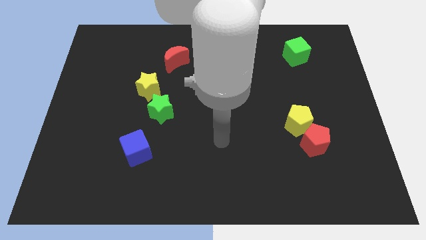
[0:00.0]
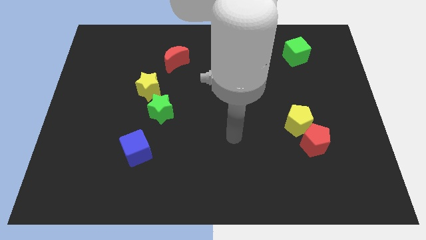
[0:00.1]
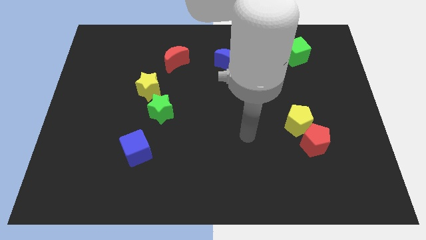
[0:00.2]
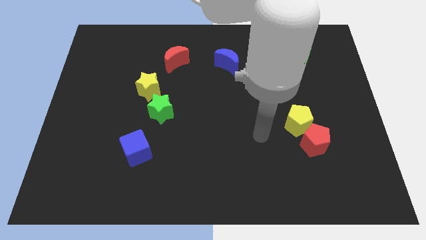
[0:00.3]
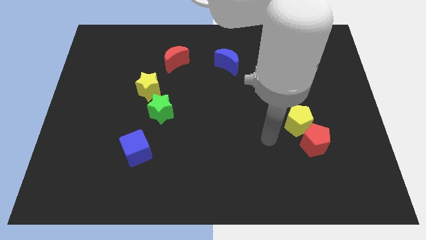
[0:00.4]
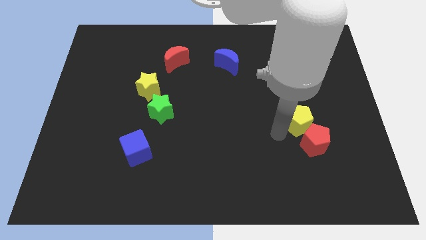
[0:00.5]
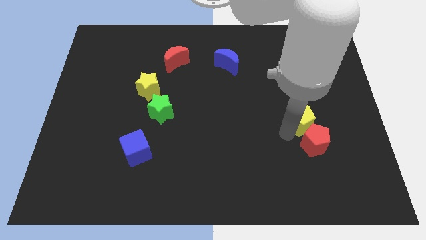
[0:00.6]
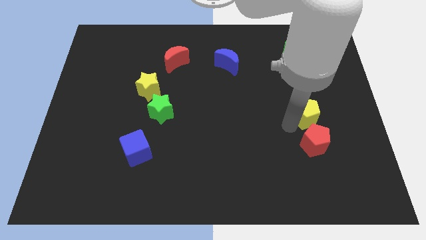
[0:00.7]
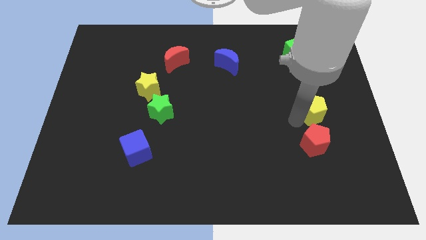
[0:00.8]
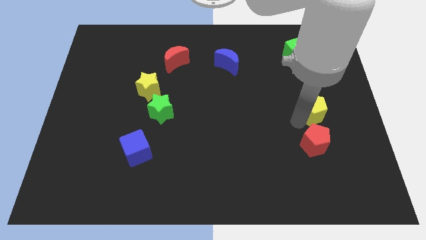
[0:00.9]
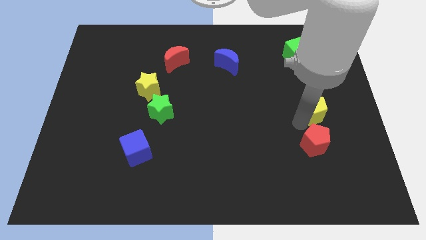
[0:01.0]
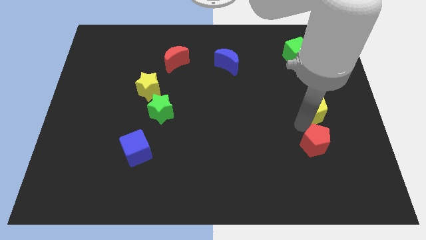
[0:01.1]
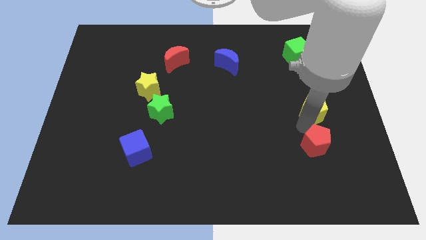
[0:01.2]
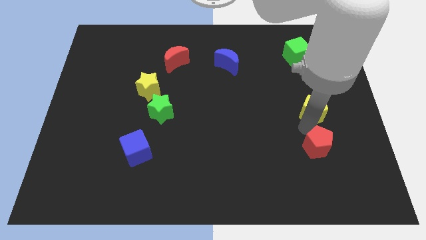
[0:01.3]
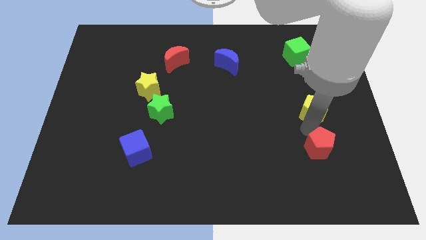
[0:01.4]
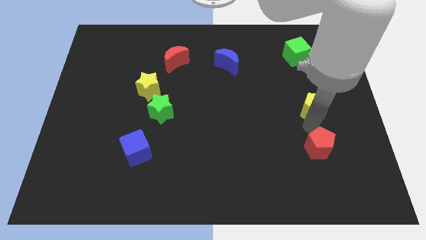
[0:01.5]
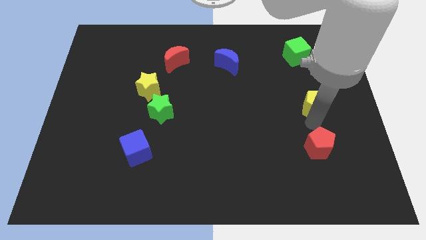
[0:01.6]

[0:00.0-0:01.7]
separate the red pentagon from the yellow pentagon

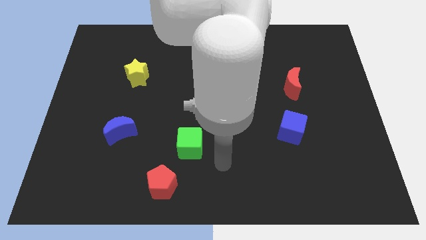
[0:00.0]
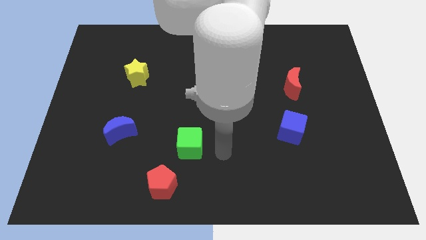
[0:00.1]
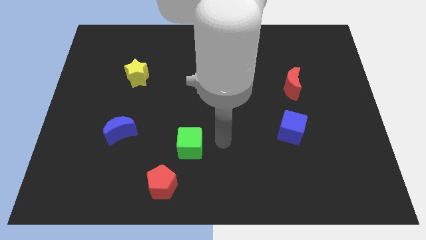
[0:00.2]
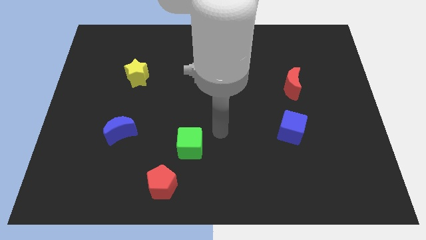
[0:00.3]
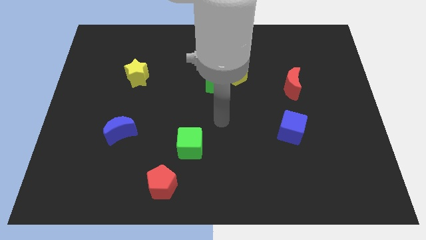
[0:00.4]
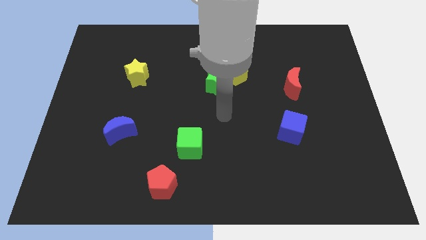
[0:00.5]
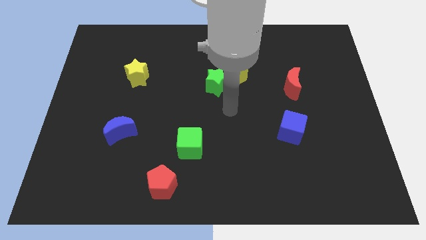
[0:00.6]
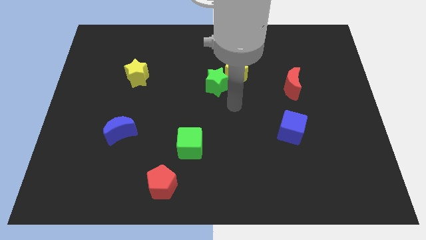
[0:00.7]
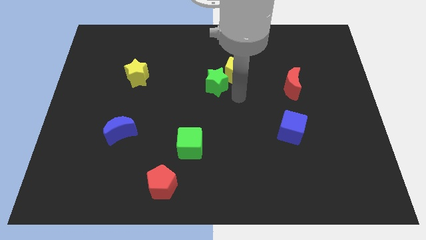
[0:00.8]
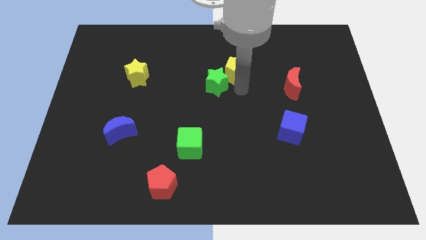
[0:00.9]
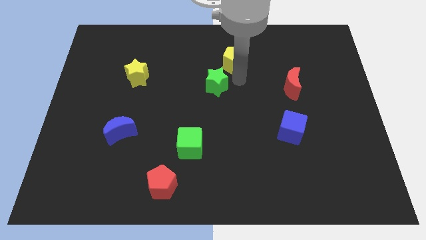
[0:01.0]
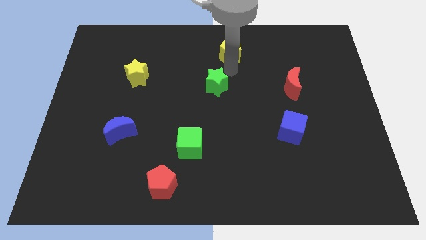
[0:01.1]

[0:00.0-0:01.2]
separate the green star from the yellow pentagon

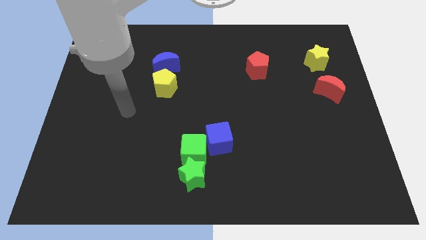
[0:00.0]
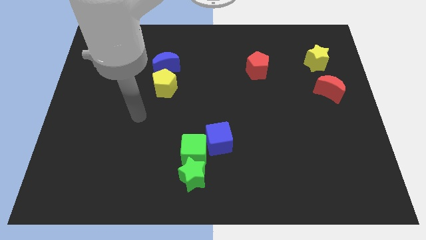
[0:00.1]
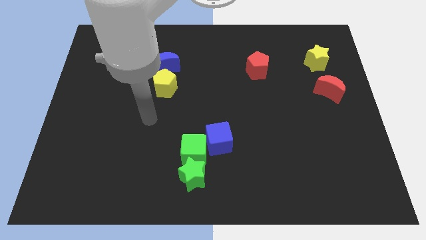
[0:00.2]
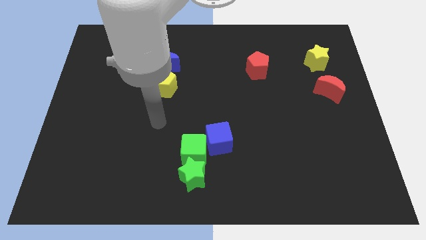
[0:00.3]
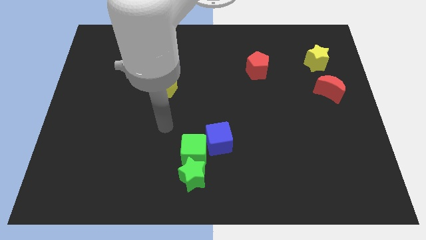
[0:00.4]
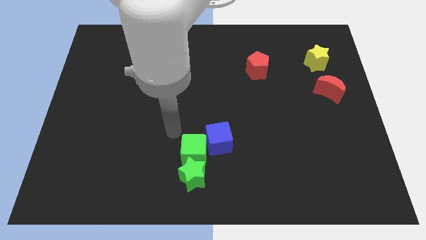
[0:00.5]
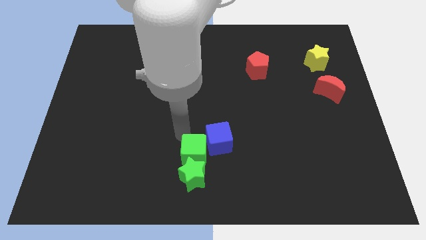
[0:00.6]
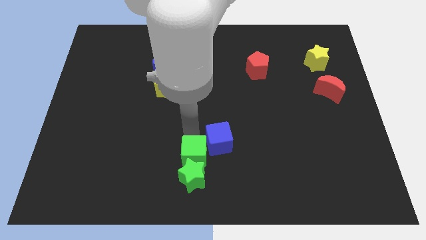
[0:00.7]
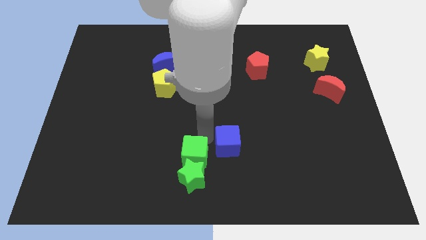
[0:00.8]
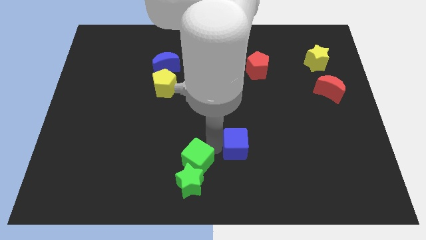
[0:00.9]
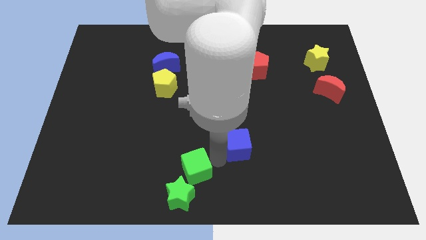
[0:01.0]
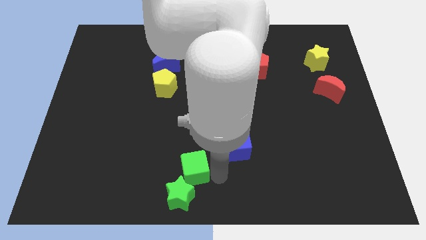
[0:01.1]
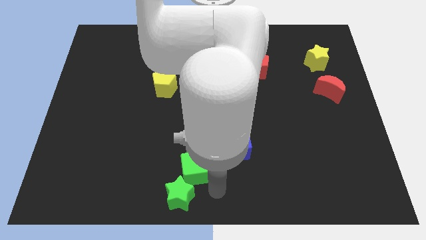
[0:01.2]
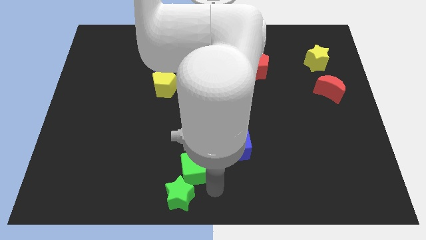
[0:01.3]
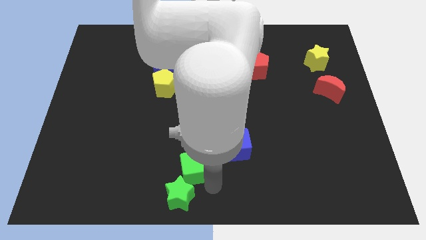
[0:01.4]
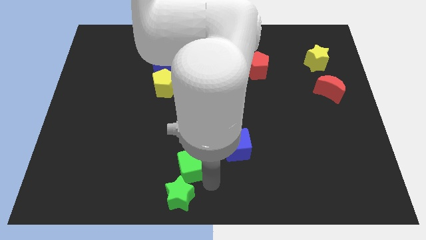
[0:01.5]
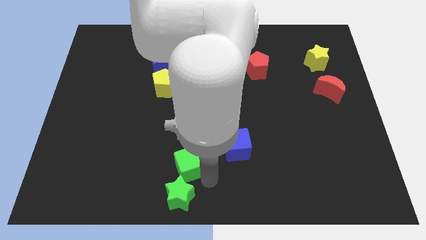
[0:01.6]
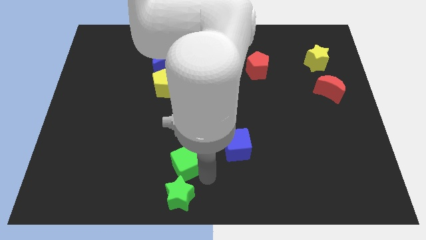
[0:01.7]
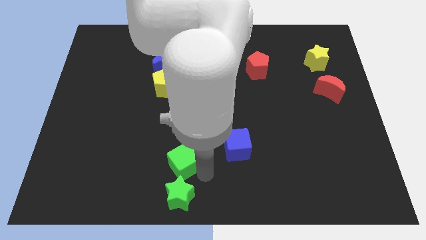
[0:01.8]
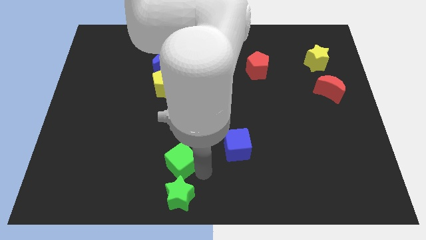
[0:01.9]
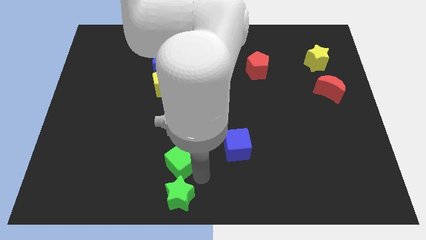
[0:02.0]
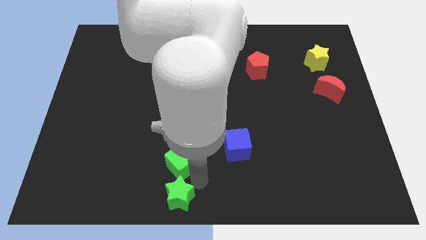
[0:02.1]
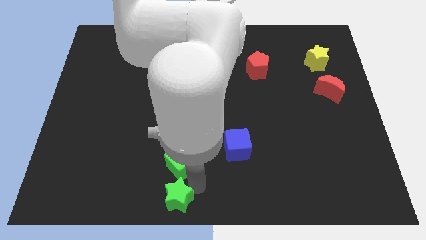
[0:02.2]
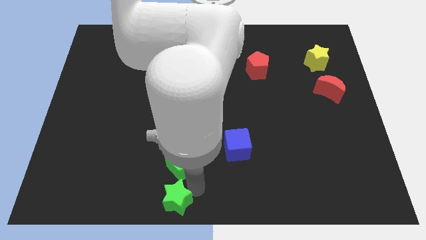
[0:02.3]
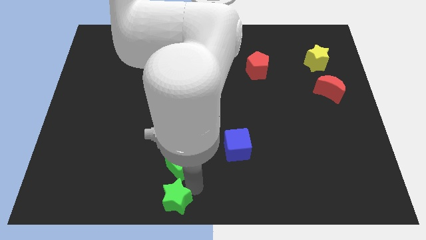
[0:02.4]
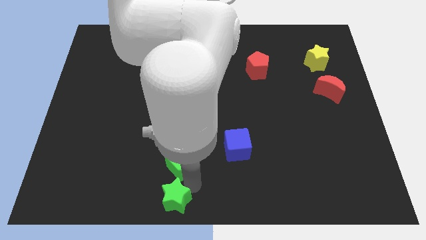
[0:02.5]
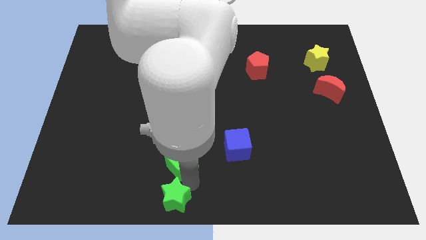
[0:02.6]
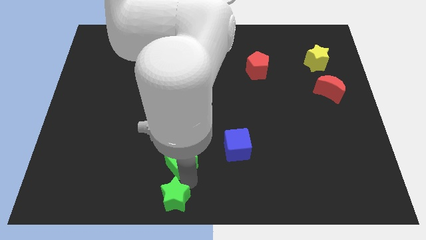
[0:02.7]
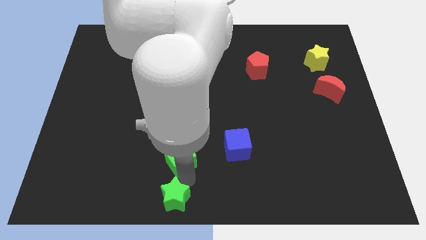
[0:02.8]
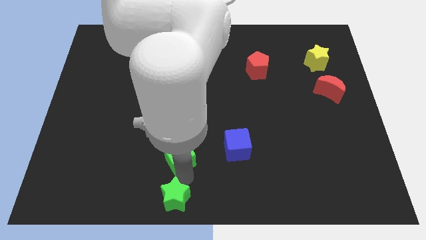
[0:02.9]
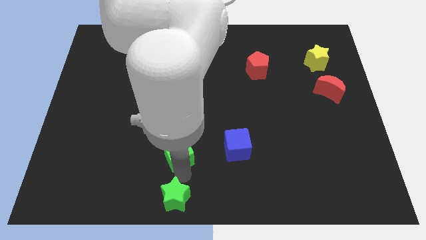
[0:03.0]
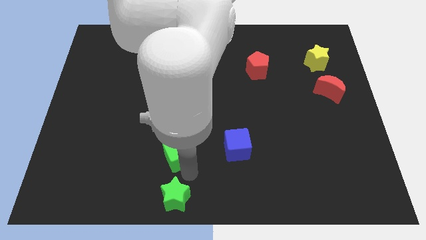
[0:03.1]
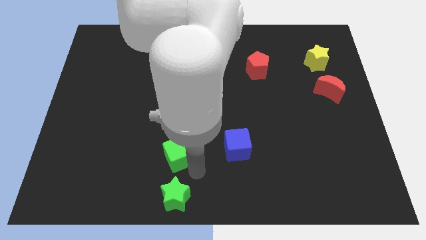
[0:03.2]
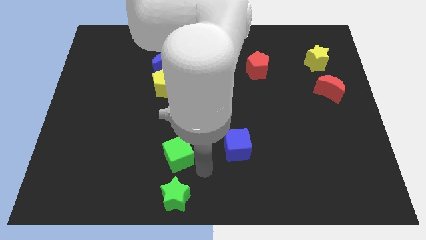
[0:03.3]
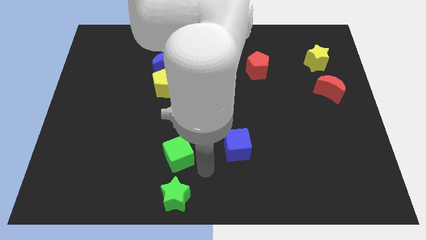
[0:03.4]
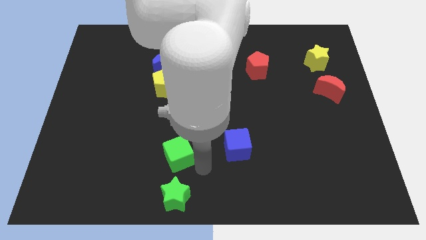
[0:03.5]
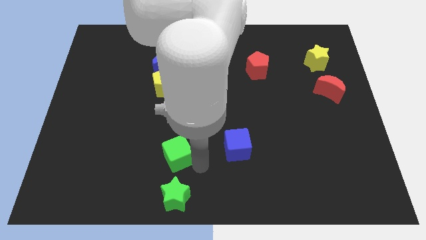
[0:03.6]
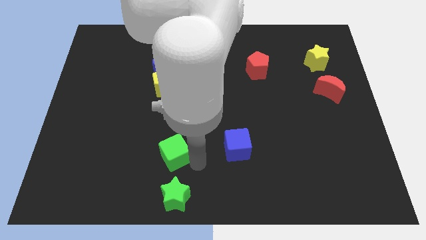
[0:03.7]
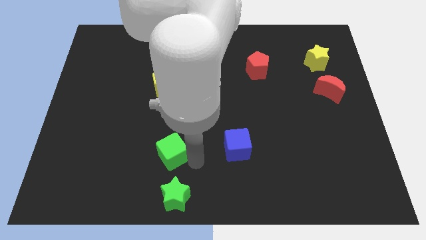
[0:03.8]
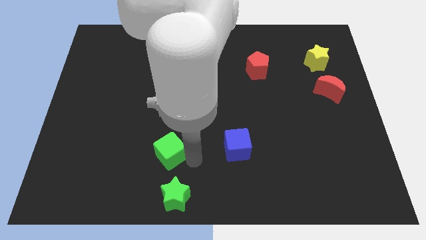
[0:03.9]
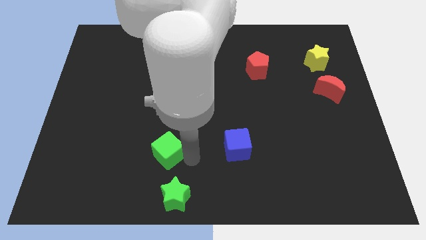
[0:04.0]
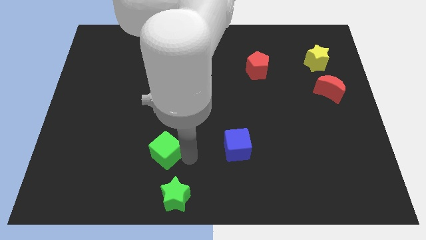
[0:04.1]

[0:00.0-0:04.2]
separate the green cube from the green star and blue cube

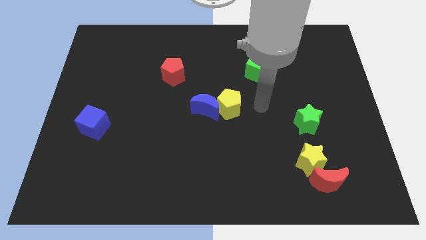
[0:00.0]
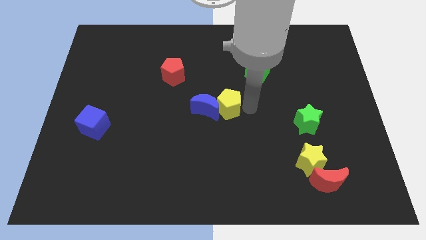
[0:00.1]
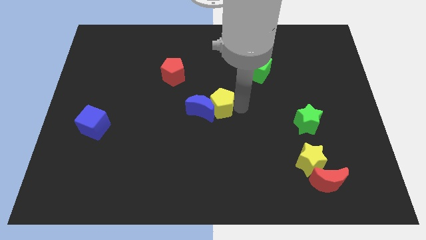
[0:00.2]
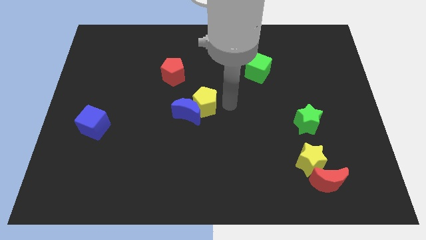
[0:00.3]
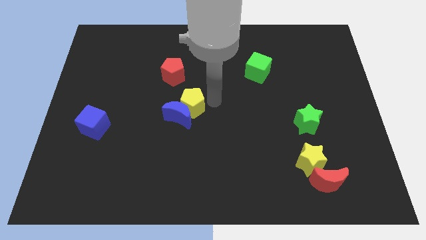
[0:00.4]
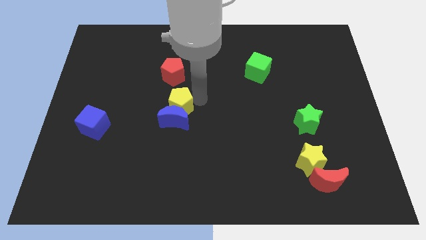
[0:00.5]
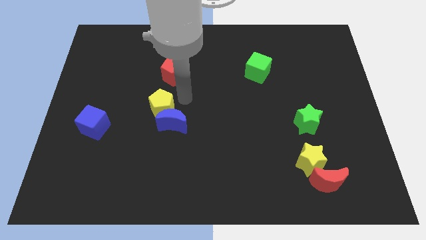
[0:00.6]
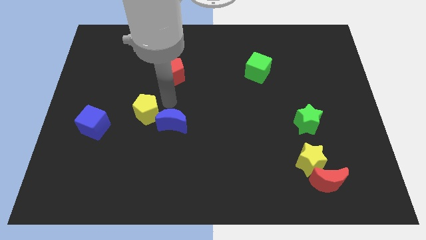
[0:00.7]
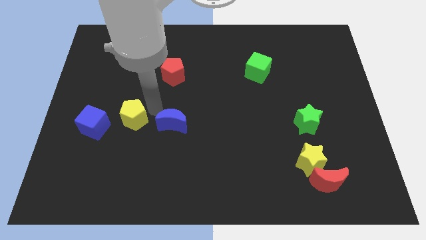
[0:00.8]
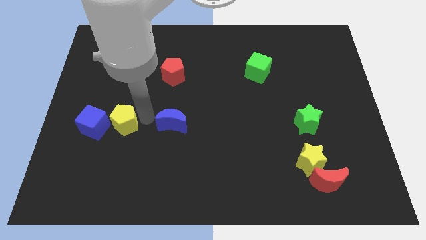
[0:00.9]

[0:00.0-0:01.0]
separate the blue moon from the yellow pentagon

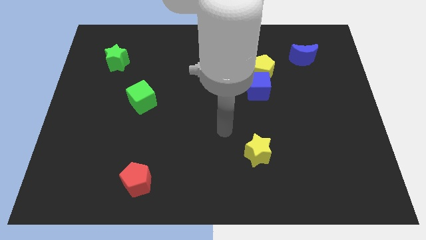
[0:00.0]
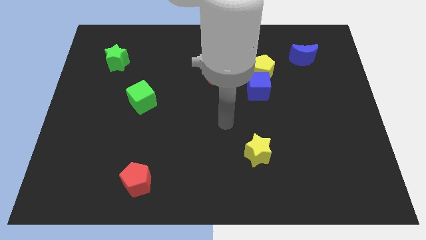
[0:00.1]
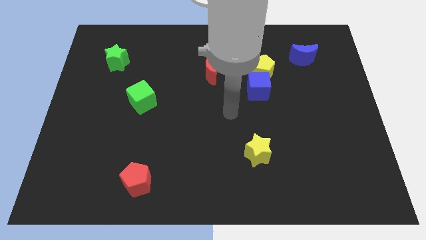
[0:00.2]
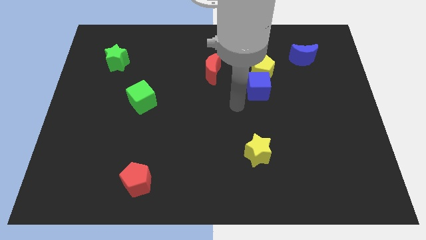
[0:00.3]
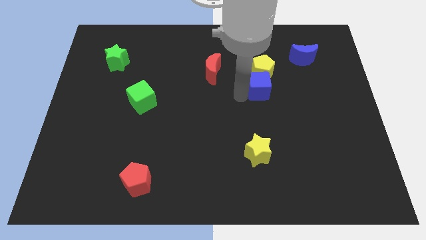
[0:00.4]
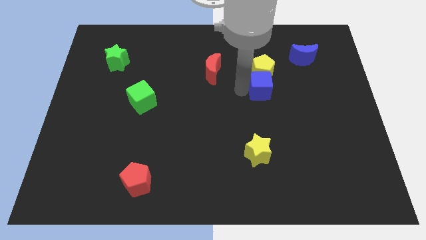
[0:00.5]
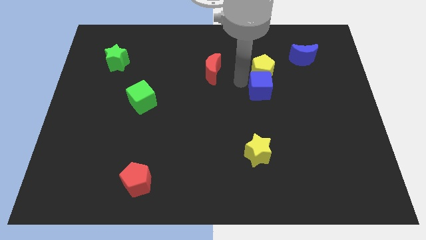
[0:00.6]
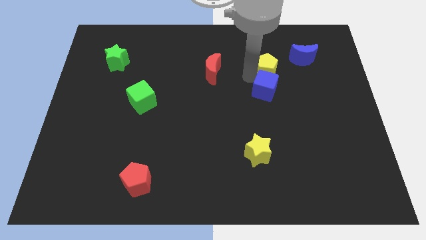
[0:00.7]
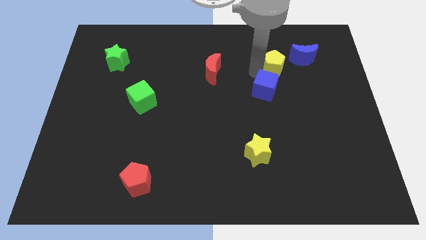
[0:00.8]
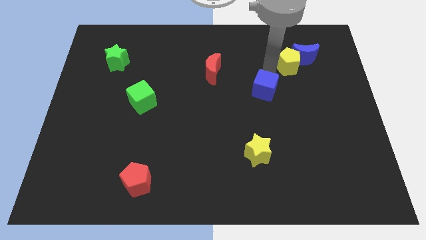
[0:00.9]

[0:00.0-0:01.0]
separate the blue cube from the yellow pentagon
